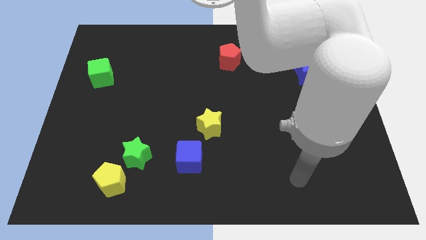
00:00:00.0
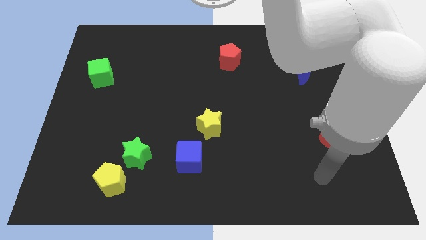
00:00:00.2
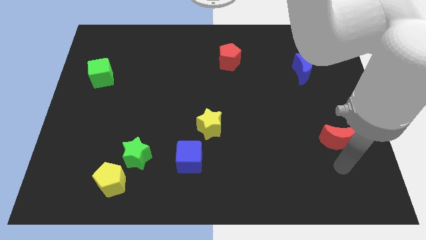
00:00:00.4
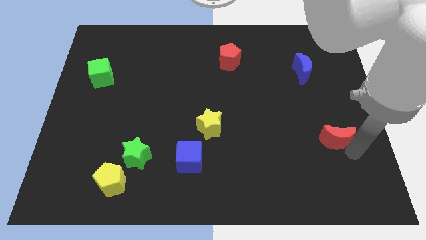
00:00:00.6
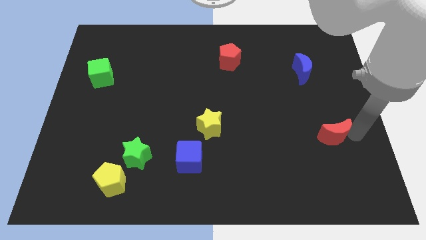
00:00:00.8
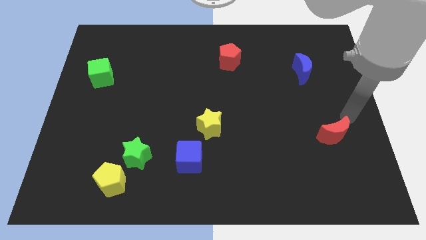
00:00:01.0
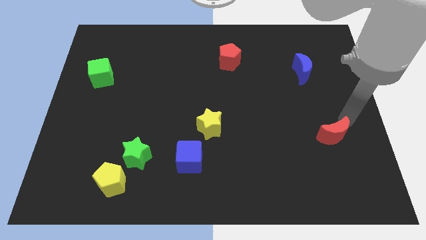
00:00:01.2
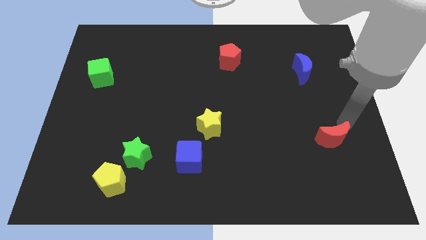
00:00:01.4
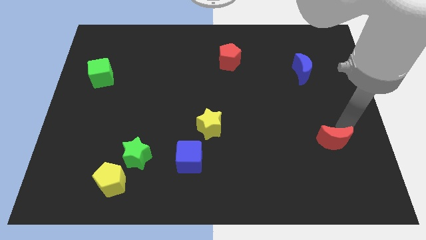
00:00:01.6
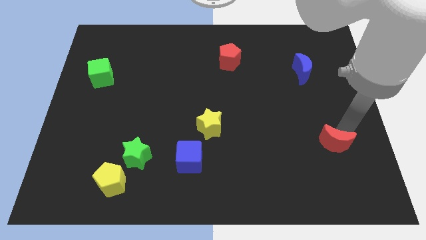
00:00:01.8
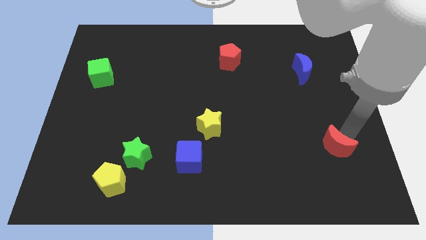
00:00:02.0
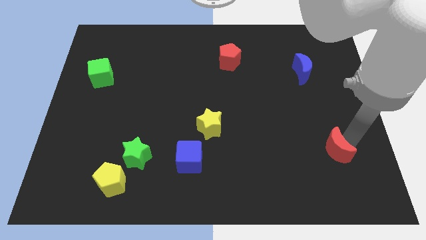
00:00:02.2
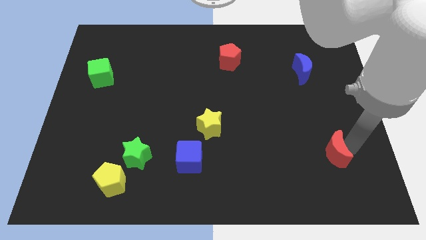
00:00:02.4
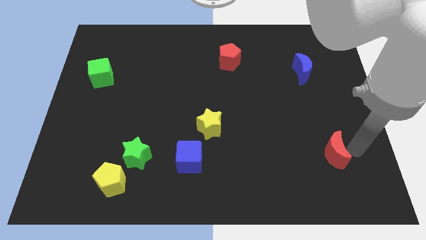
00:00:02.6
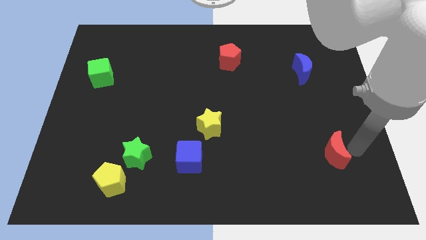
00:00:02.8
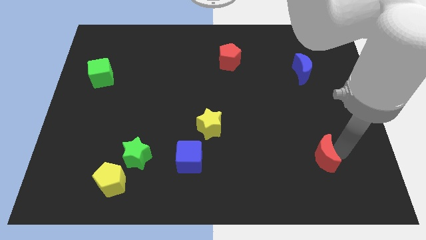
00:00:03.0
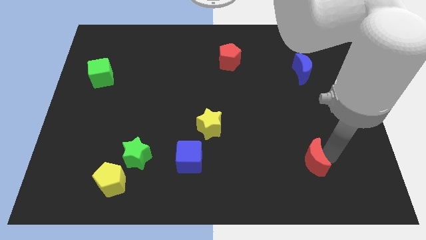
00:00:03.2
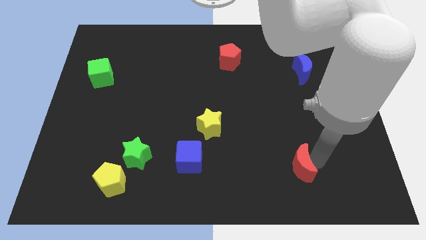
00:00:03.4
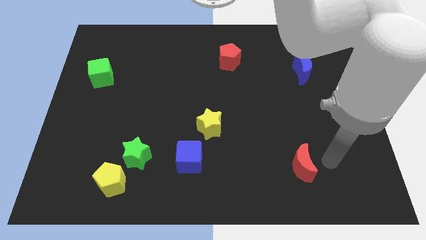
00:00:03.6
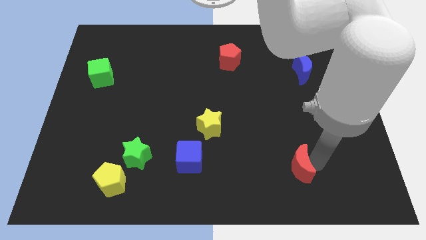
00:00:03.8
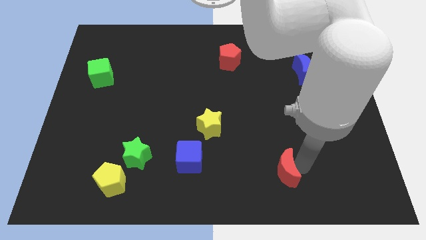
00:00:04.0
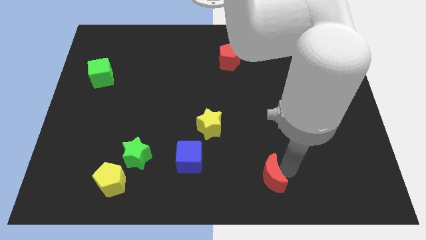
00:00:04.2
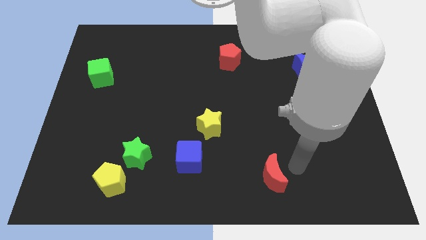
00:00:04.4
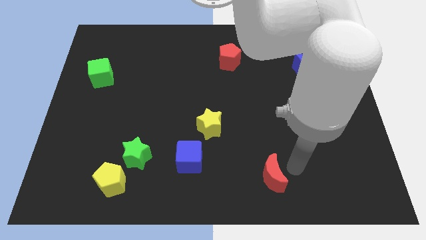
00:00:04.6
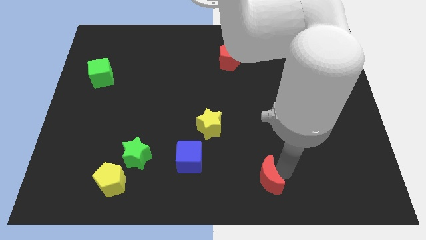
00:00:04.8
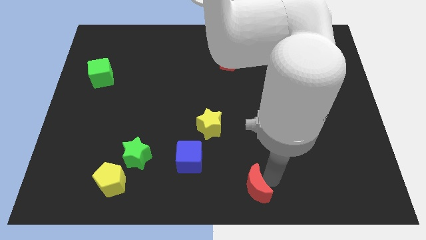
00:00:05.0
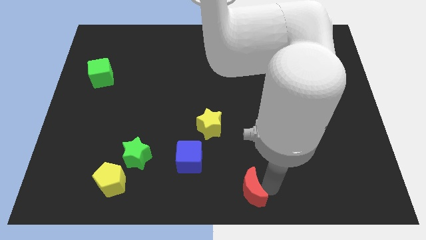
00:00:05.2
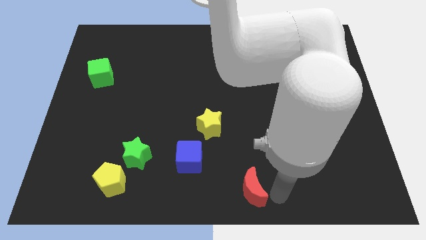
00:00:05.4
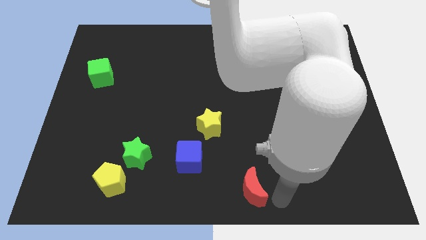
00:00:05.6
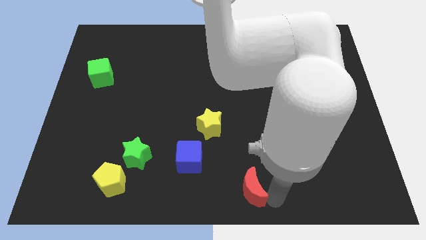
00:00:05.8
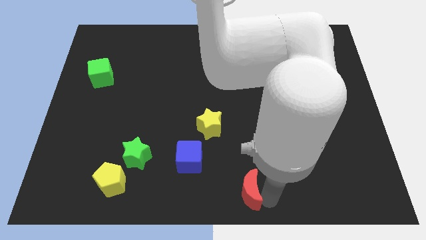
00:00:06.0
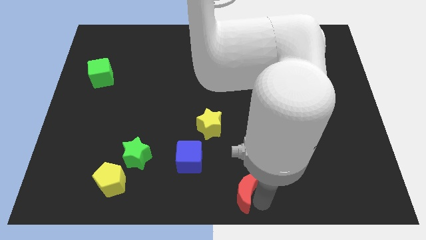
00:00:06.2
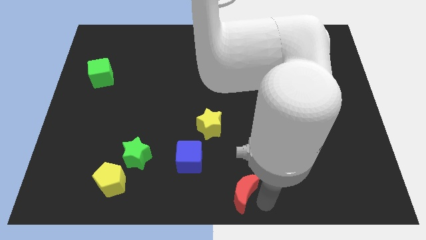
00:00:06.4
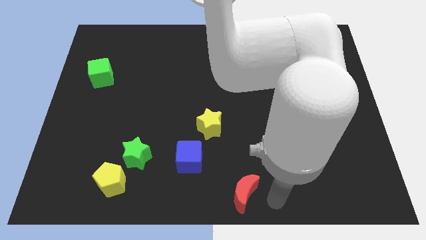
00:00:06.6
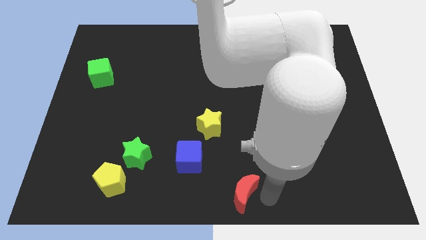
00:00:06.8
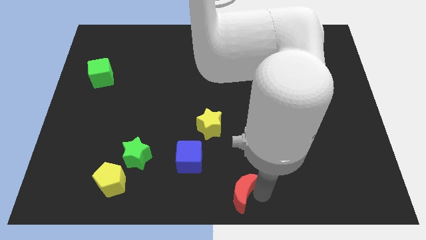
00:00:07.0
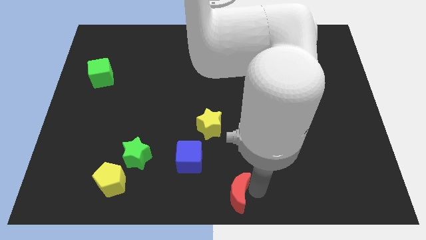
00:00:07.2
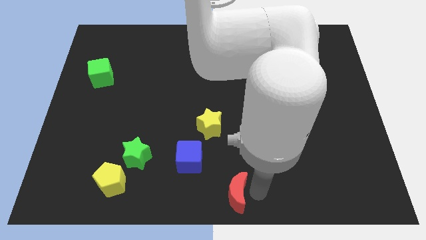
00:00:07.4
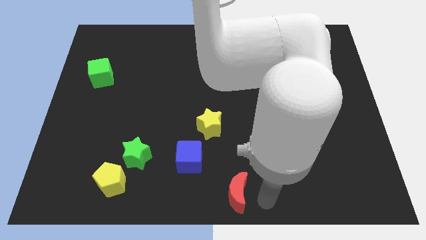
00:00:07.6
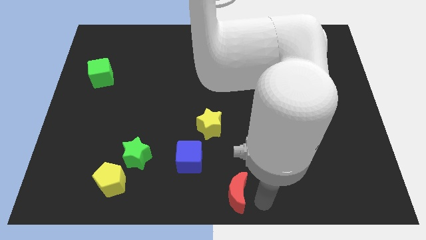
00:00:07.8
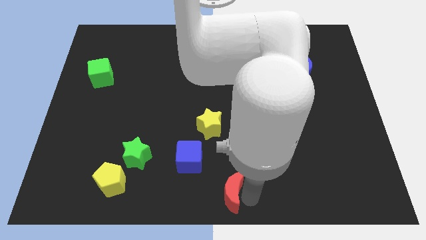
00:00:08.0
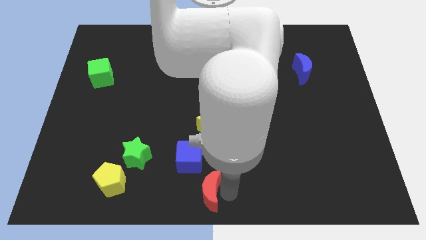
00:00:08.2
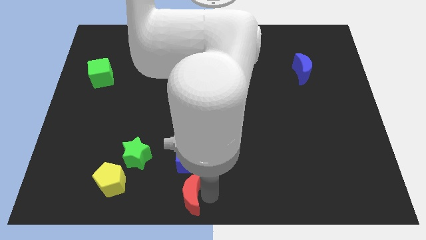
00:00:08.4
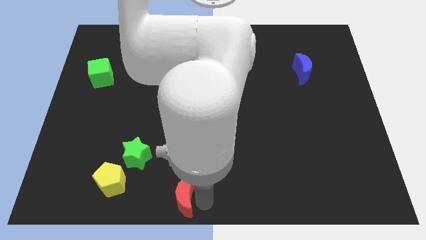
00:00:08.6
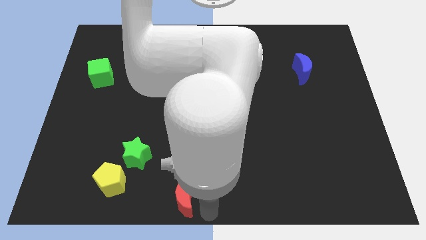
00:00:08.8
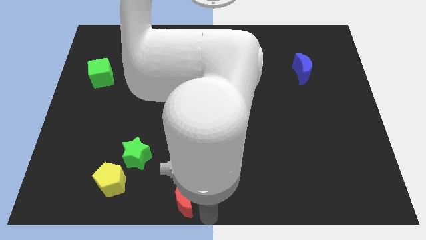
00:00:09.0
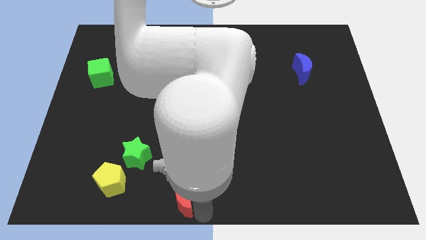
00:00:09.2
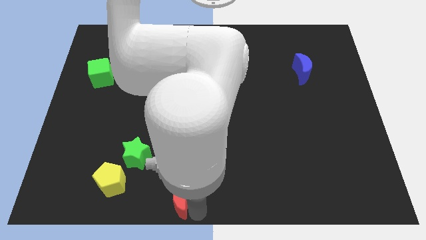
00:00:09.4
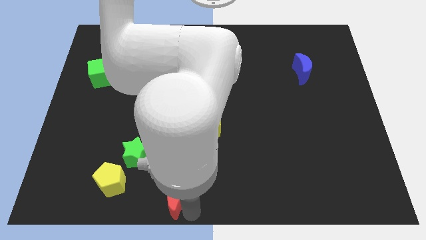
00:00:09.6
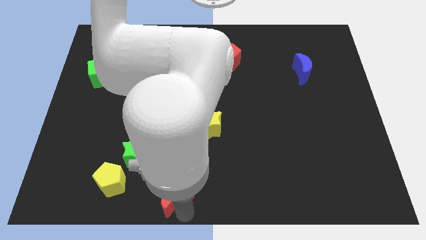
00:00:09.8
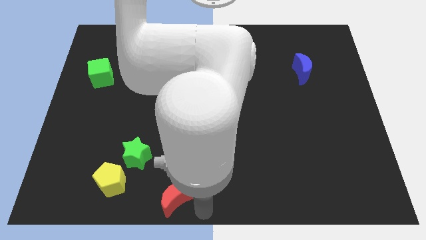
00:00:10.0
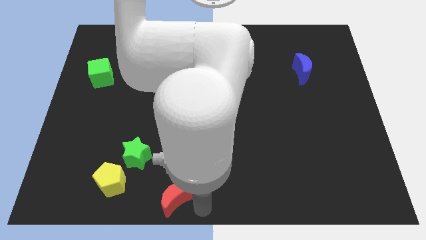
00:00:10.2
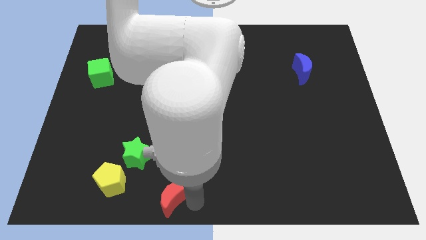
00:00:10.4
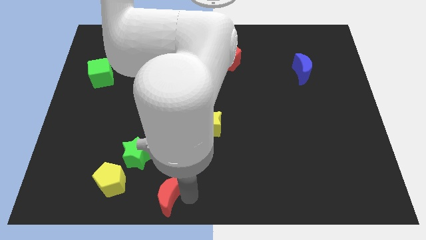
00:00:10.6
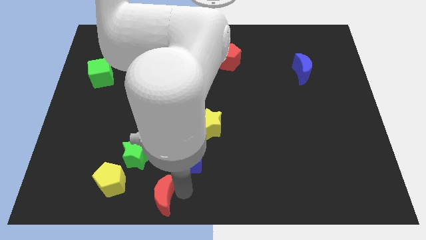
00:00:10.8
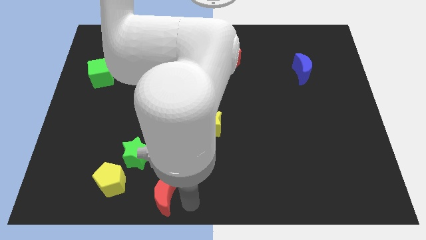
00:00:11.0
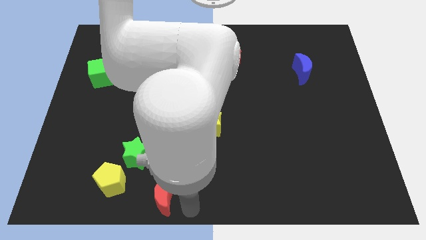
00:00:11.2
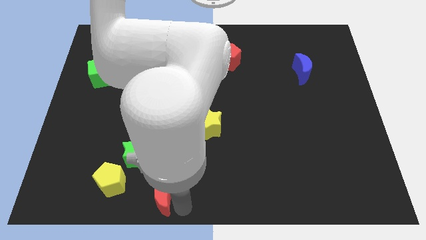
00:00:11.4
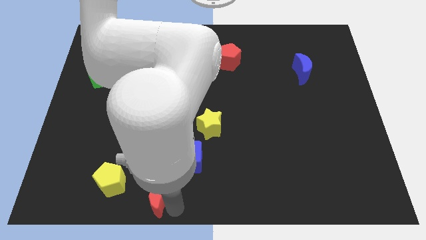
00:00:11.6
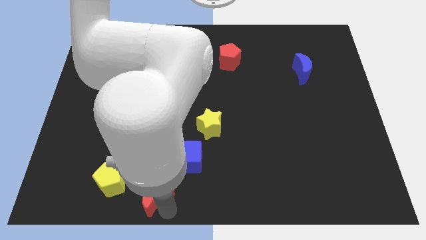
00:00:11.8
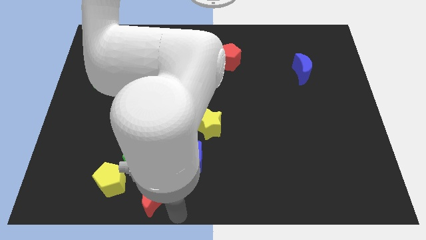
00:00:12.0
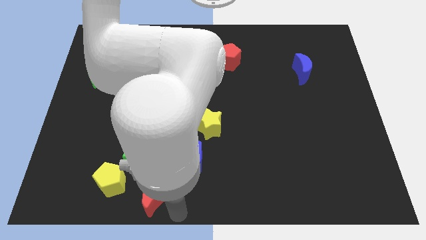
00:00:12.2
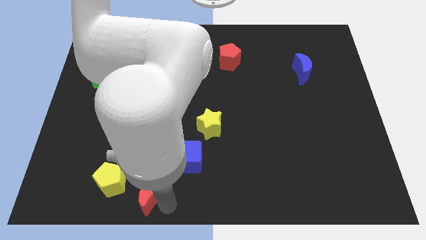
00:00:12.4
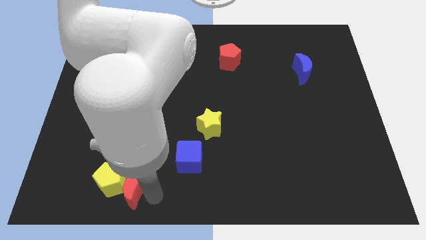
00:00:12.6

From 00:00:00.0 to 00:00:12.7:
move the red moon to the yellow pentagon

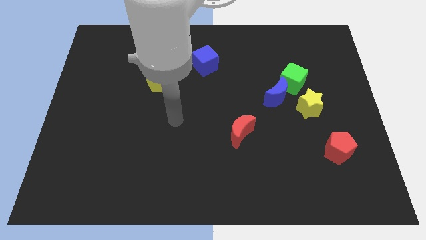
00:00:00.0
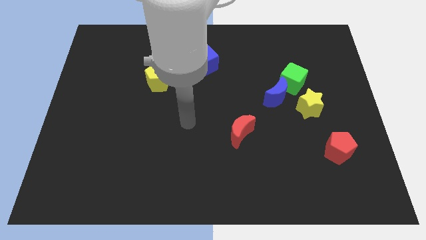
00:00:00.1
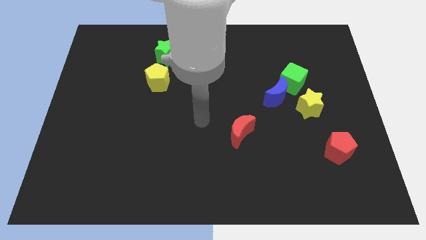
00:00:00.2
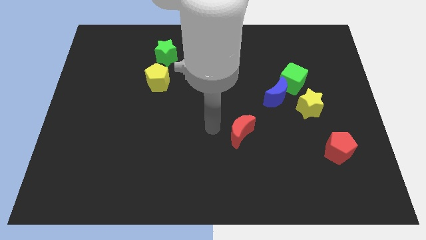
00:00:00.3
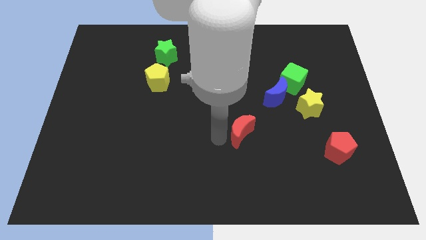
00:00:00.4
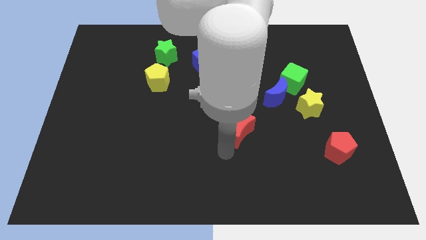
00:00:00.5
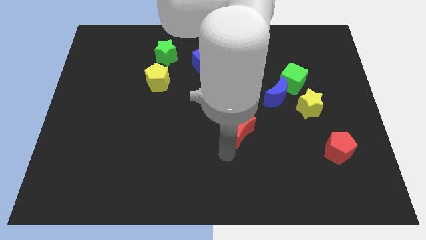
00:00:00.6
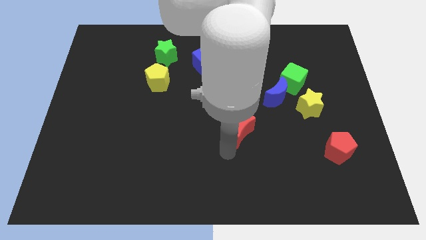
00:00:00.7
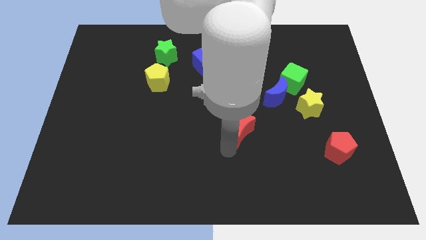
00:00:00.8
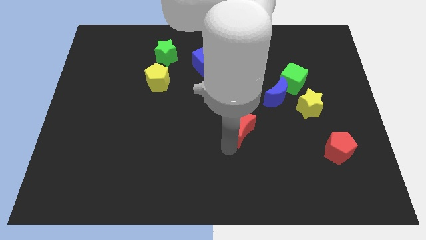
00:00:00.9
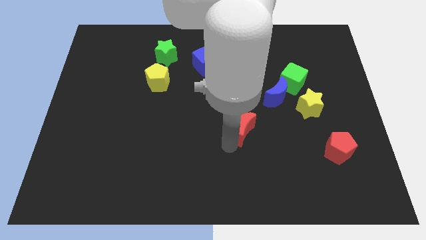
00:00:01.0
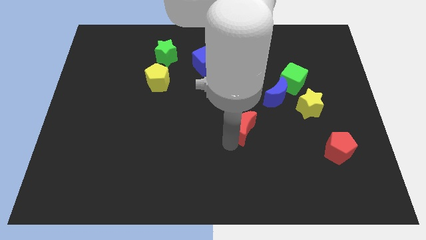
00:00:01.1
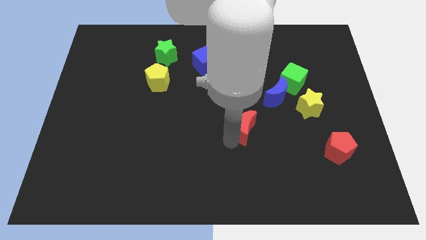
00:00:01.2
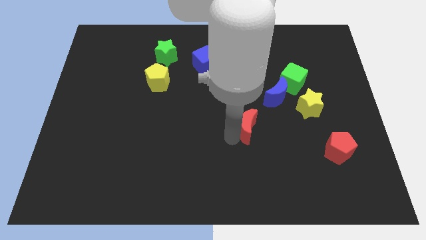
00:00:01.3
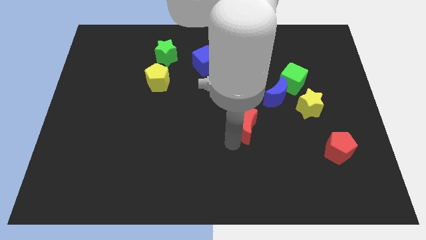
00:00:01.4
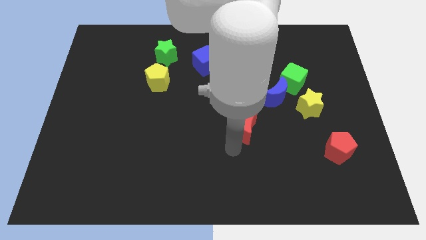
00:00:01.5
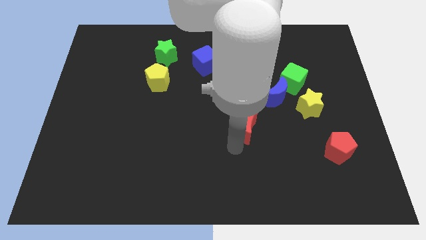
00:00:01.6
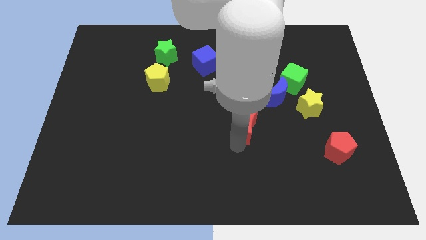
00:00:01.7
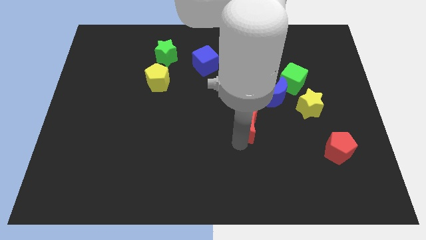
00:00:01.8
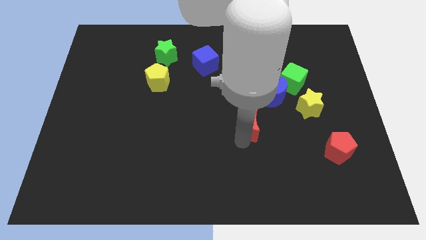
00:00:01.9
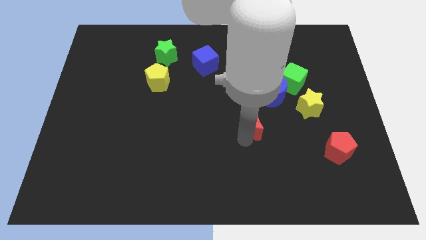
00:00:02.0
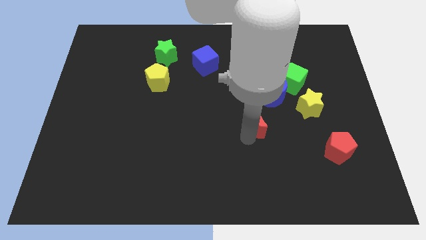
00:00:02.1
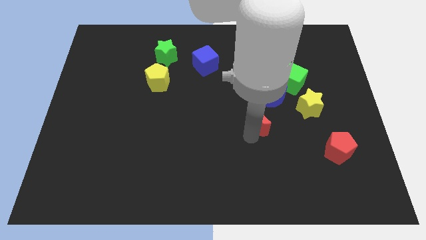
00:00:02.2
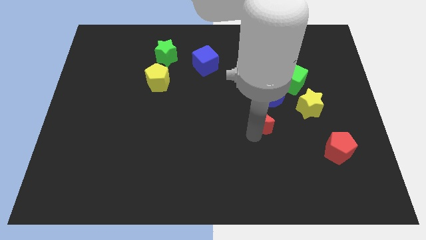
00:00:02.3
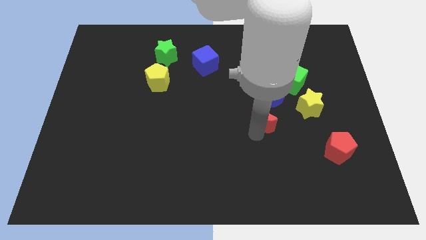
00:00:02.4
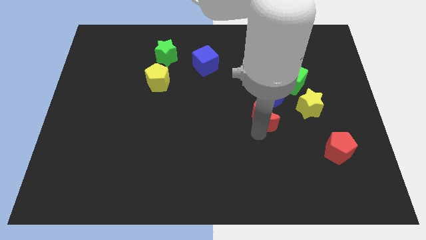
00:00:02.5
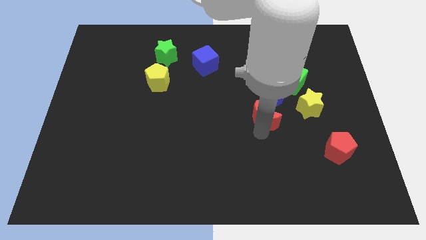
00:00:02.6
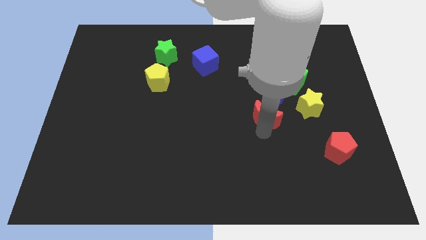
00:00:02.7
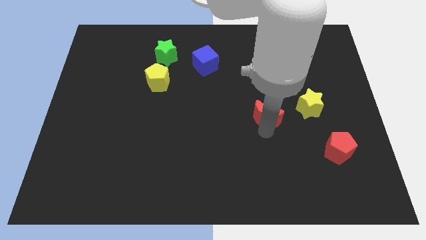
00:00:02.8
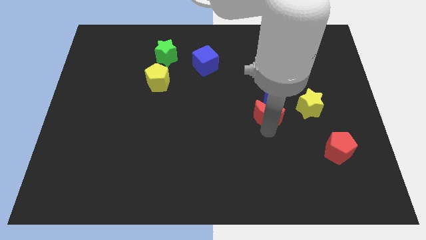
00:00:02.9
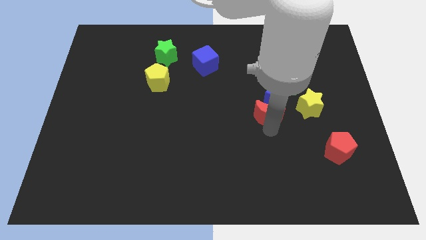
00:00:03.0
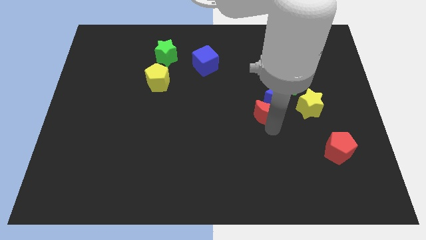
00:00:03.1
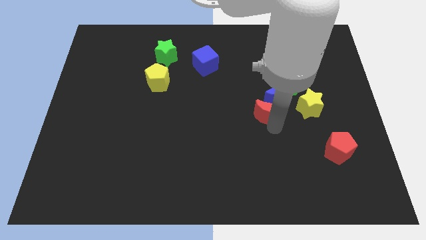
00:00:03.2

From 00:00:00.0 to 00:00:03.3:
move the red moon towards the blue moon
